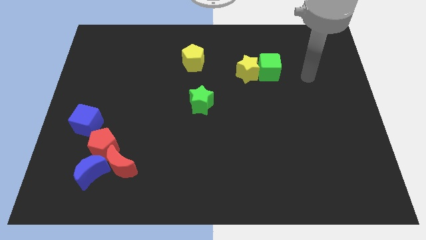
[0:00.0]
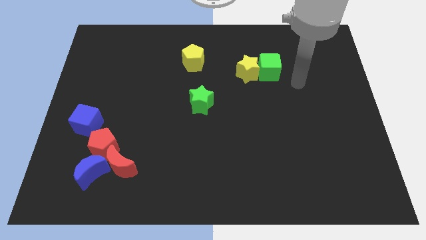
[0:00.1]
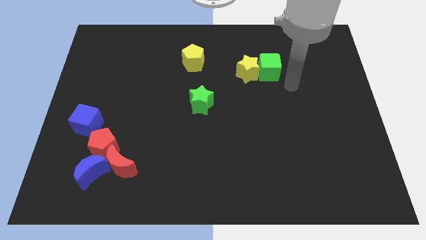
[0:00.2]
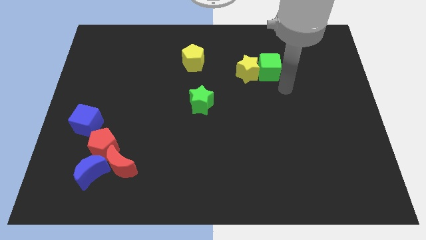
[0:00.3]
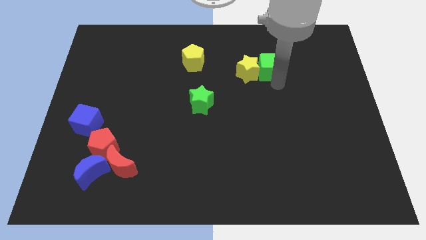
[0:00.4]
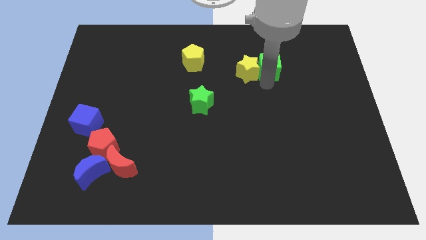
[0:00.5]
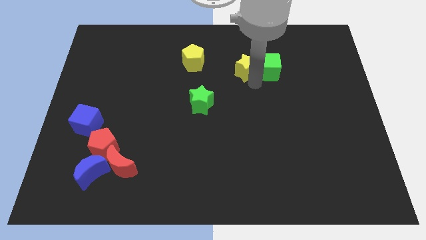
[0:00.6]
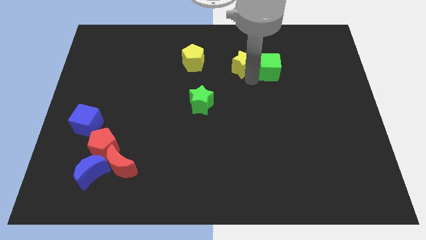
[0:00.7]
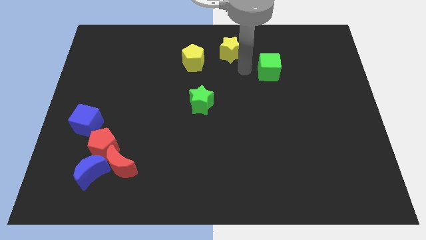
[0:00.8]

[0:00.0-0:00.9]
pull the green cube apart from the yellow star

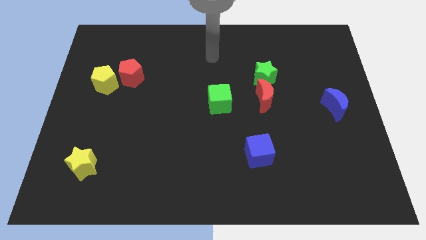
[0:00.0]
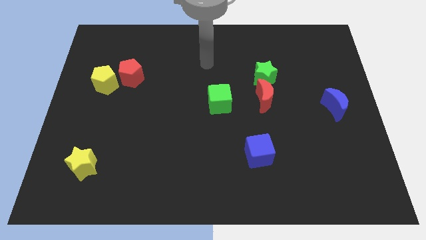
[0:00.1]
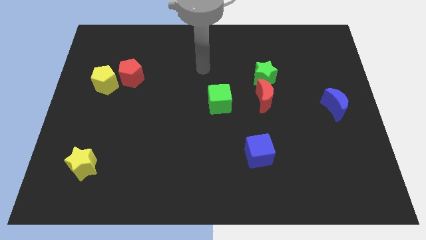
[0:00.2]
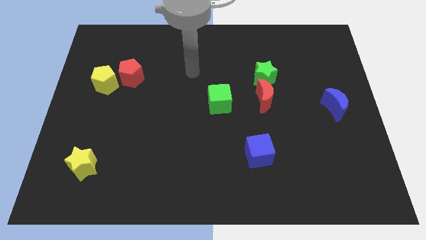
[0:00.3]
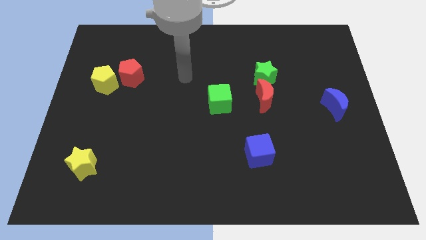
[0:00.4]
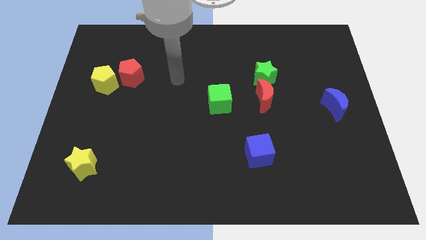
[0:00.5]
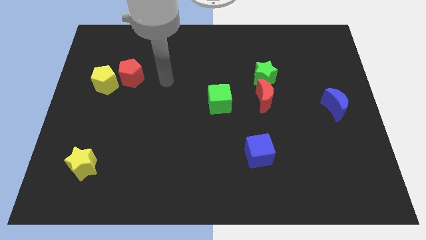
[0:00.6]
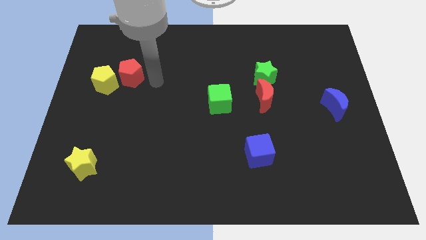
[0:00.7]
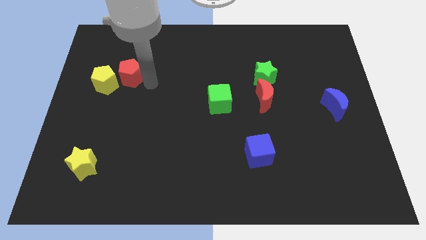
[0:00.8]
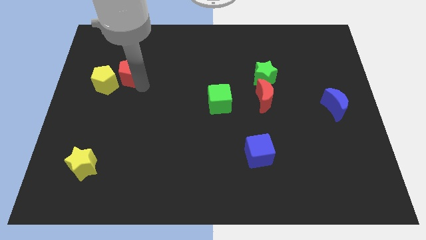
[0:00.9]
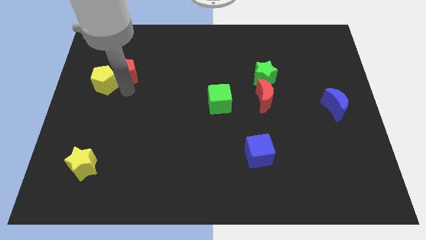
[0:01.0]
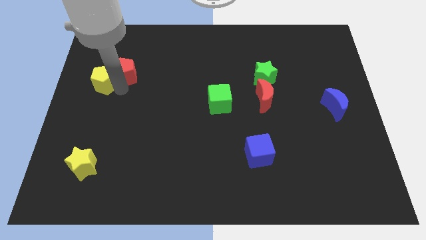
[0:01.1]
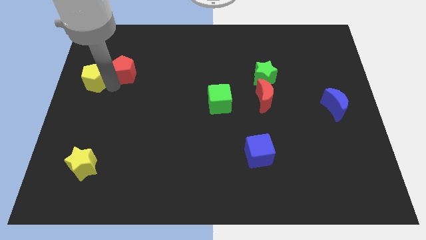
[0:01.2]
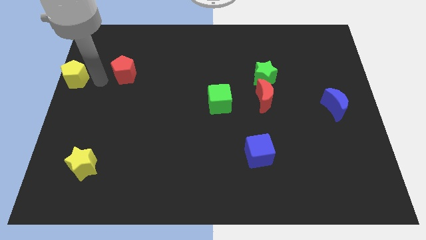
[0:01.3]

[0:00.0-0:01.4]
separate the red pentagon from the yellow pentagon

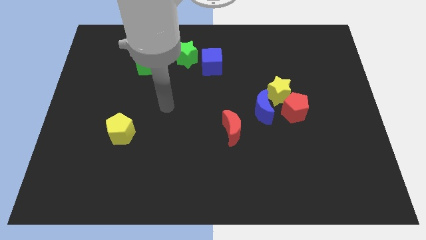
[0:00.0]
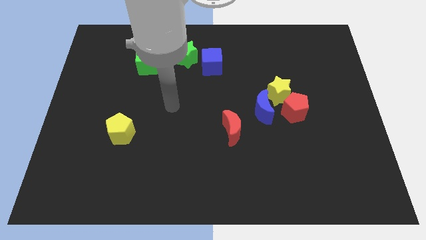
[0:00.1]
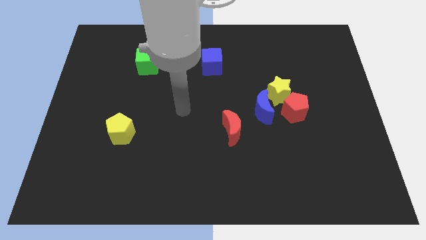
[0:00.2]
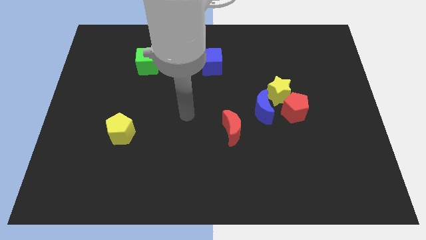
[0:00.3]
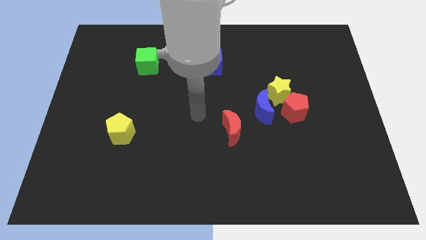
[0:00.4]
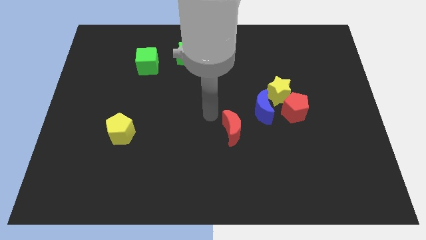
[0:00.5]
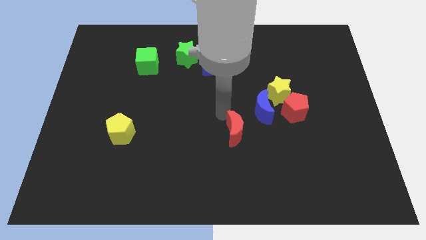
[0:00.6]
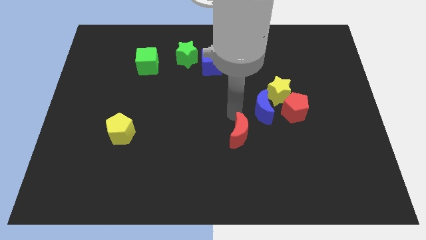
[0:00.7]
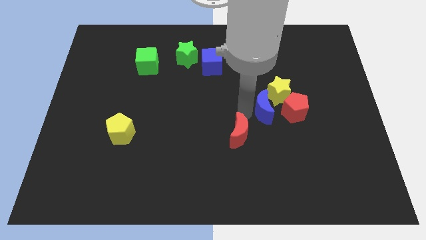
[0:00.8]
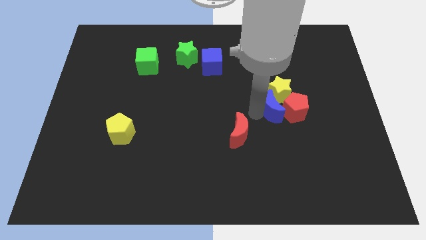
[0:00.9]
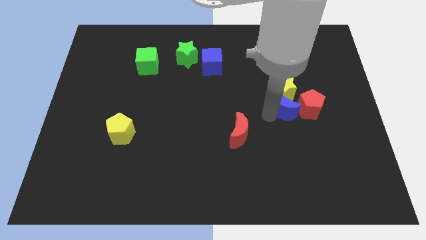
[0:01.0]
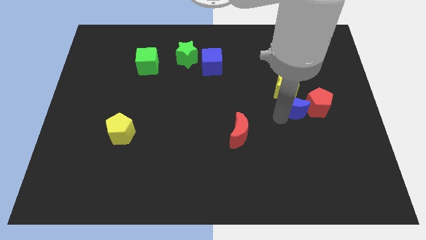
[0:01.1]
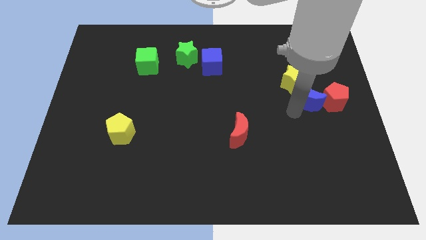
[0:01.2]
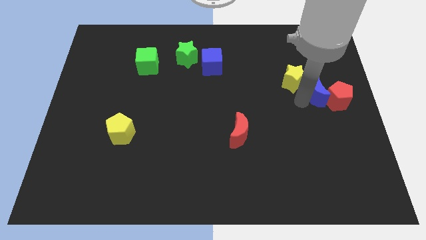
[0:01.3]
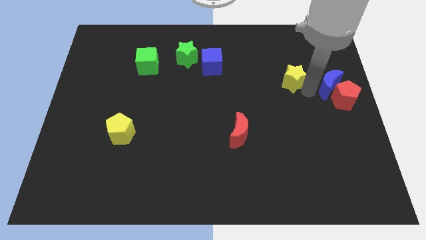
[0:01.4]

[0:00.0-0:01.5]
move the yellow star away from the red pentagon and blue moon

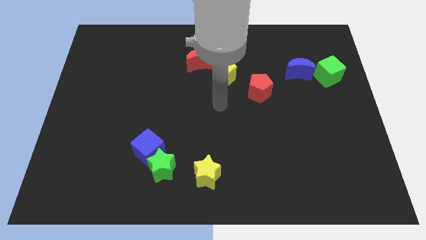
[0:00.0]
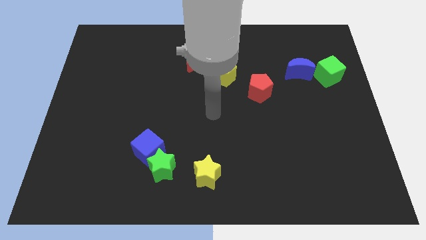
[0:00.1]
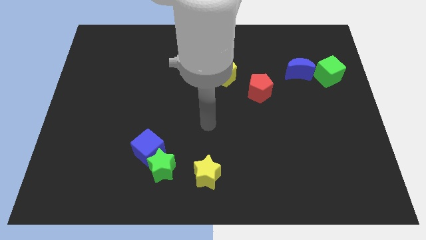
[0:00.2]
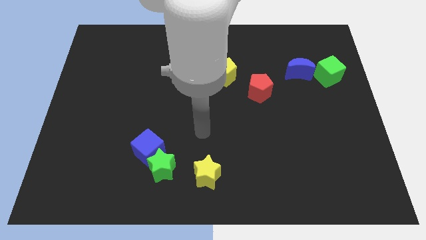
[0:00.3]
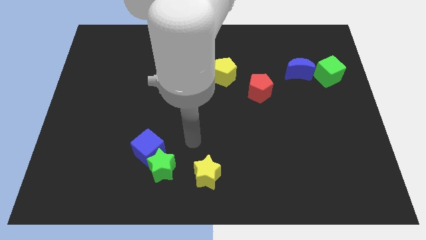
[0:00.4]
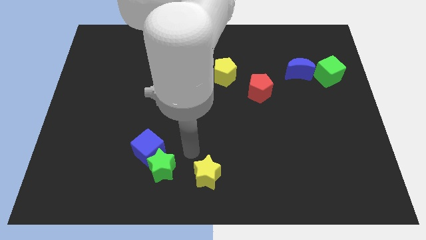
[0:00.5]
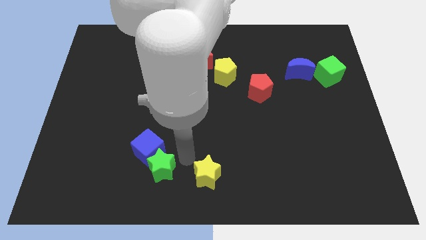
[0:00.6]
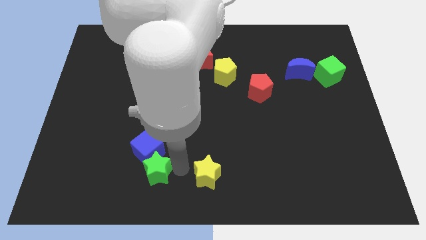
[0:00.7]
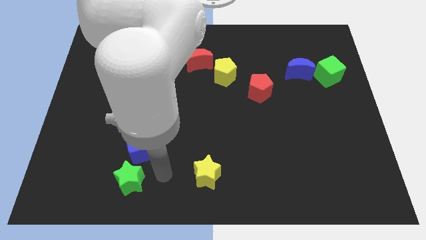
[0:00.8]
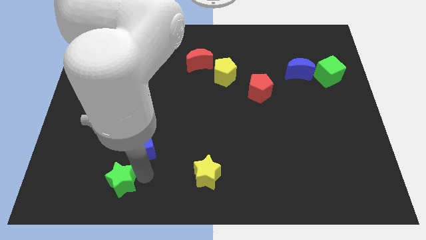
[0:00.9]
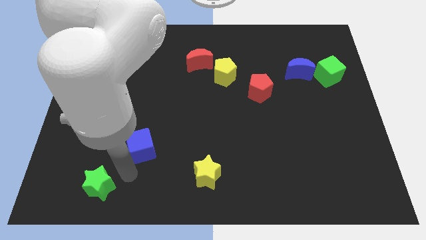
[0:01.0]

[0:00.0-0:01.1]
separate the blue cube from the green star

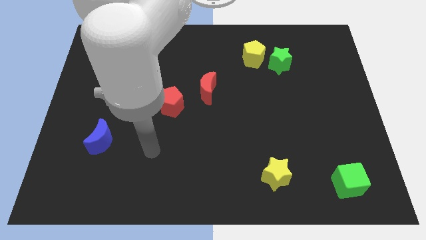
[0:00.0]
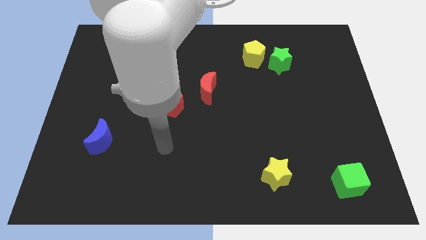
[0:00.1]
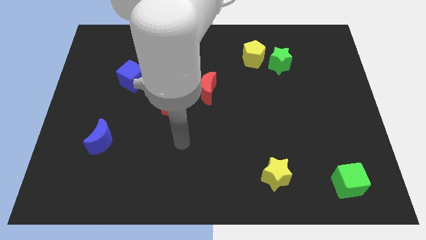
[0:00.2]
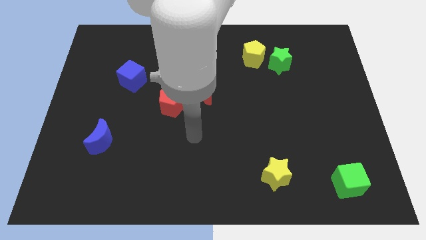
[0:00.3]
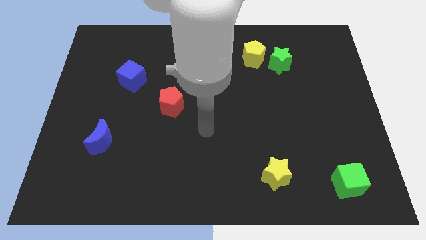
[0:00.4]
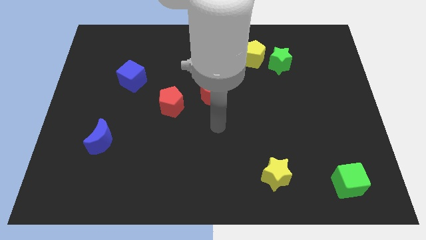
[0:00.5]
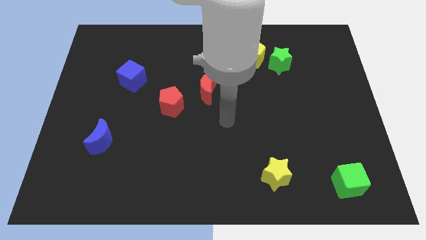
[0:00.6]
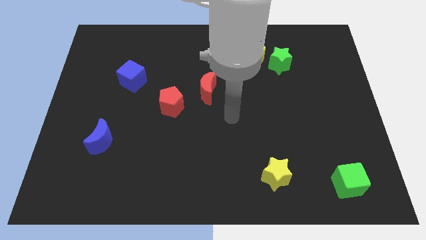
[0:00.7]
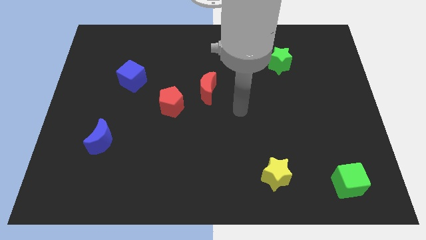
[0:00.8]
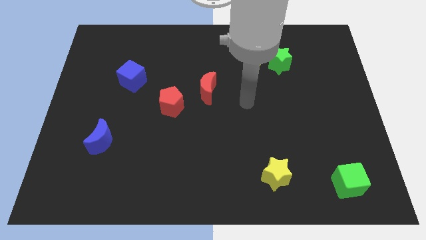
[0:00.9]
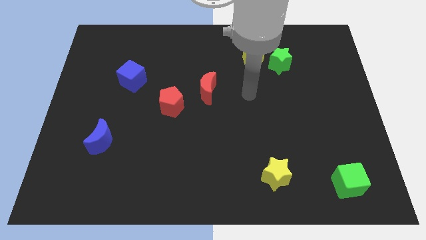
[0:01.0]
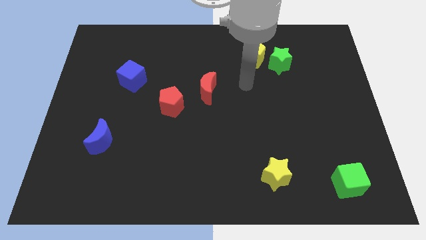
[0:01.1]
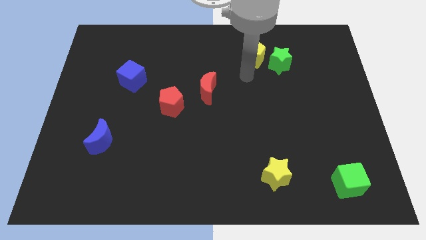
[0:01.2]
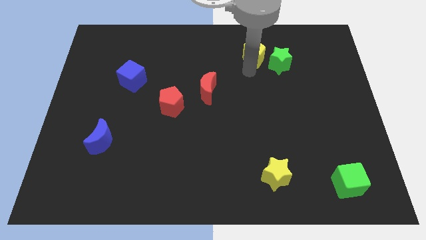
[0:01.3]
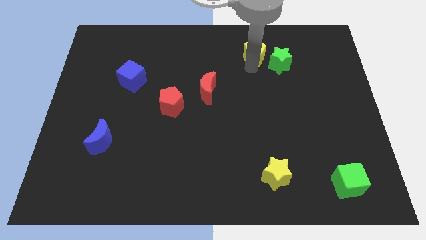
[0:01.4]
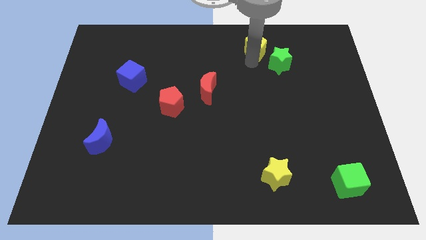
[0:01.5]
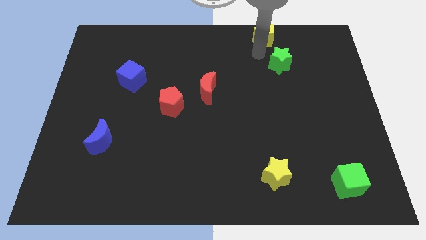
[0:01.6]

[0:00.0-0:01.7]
move the green star away from the yellow pentagon

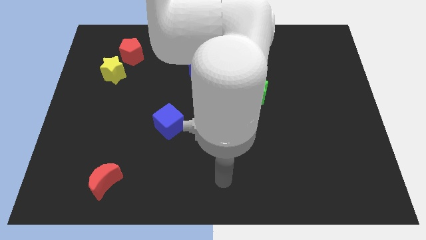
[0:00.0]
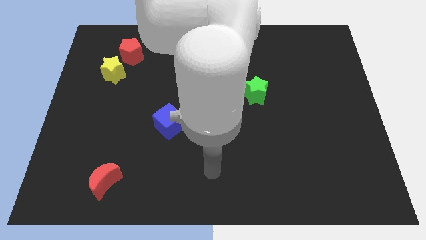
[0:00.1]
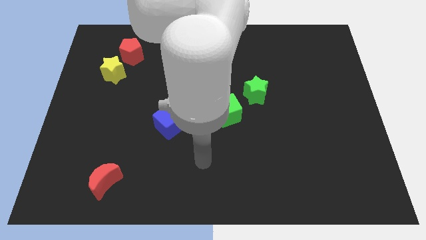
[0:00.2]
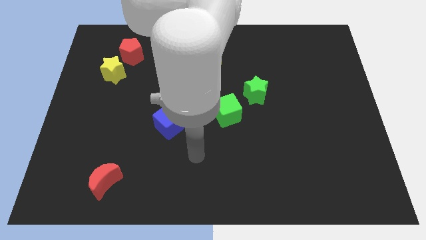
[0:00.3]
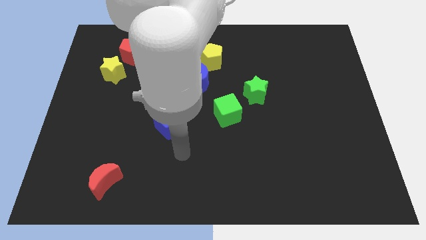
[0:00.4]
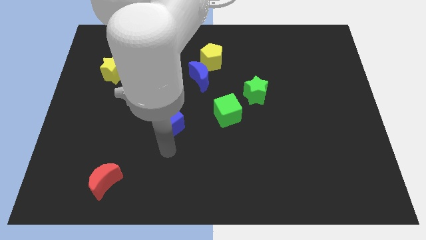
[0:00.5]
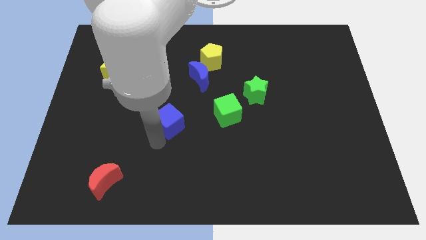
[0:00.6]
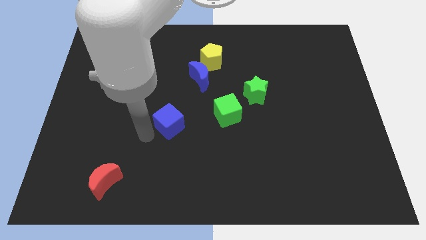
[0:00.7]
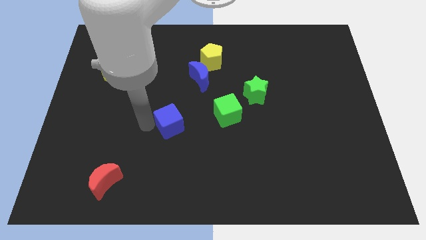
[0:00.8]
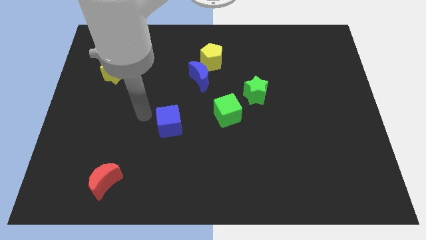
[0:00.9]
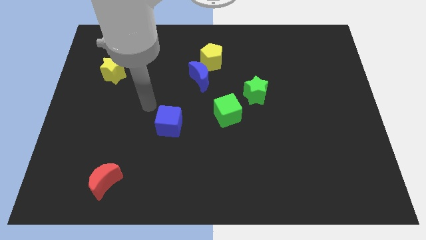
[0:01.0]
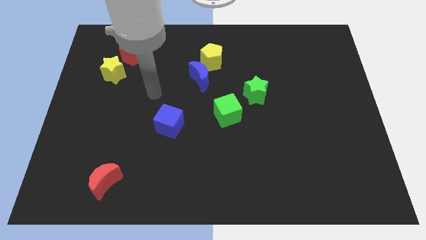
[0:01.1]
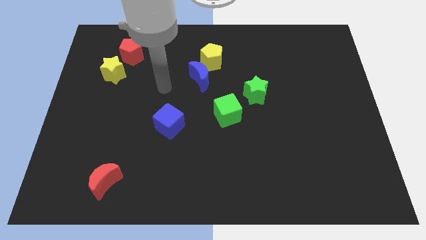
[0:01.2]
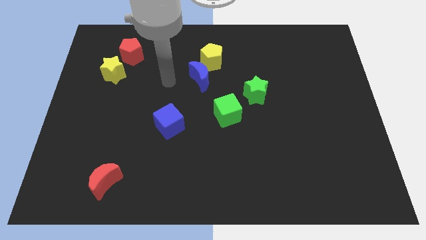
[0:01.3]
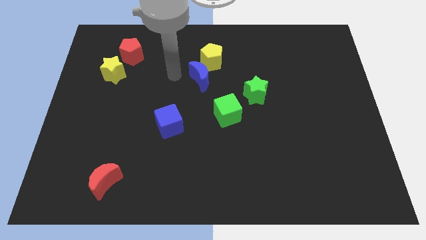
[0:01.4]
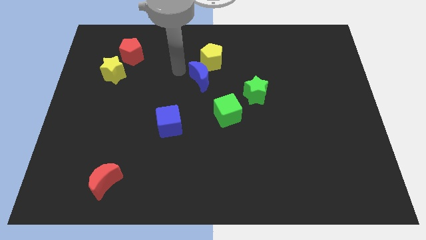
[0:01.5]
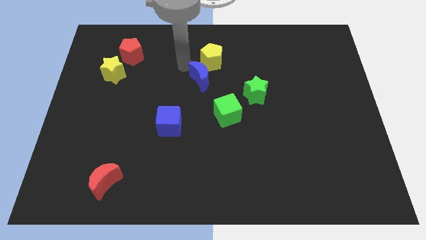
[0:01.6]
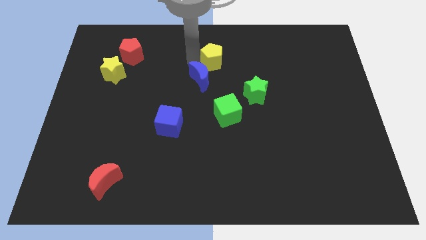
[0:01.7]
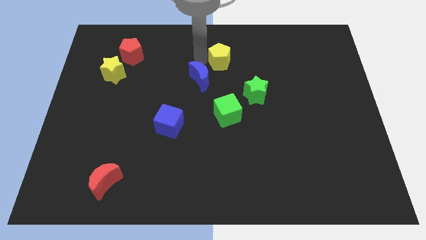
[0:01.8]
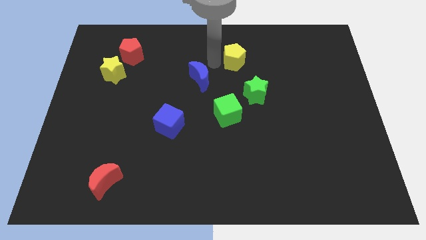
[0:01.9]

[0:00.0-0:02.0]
move the blue moon away from the yellow pentagon

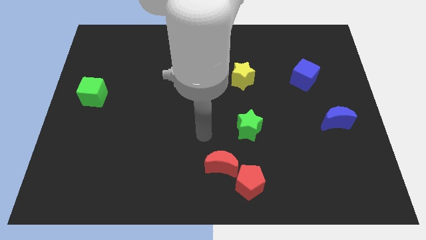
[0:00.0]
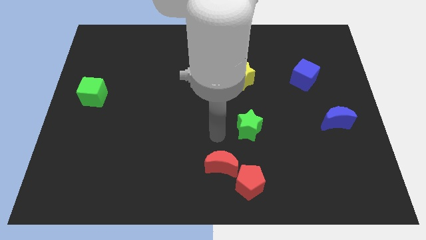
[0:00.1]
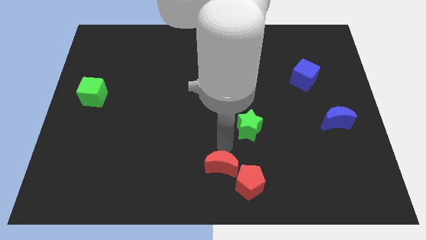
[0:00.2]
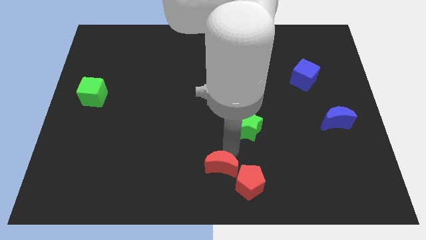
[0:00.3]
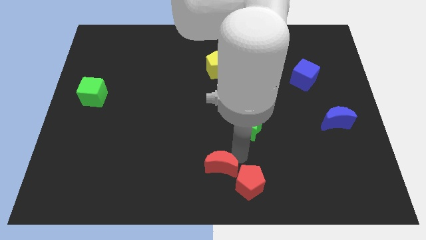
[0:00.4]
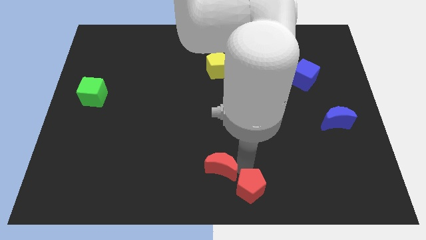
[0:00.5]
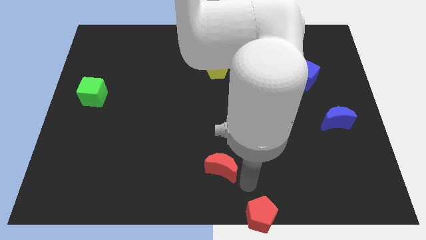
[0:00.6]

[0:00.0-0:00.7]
move the red moon away from the red pentagon
